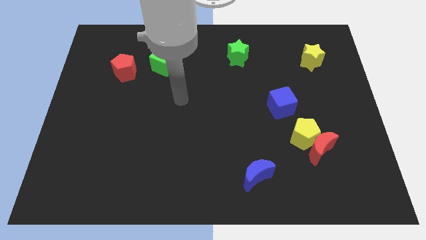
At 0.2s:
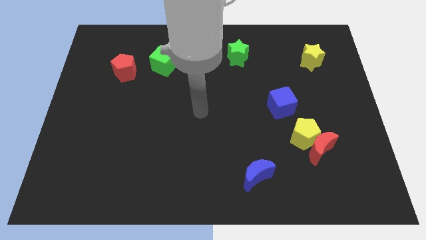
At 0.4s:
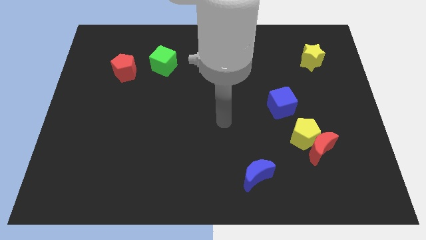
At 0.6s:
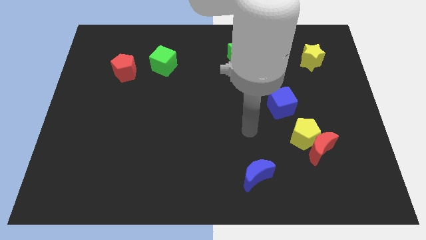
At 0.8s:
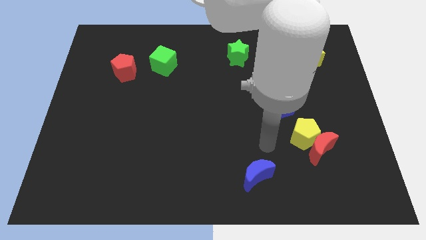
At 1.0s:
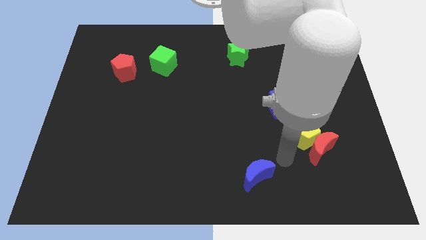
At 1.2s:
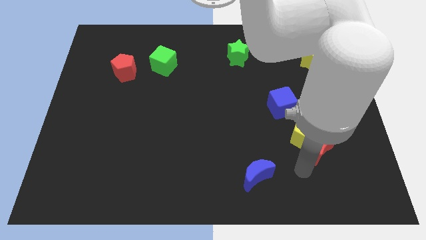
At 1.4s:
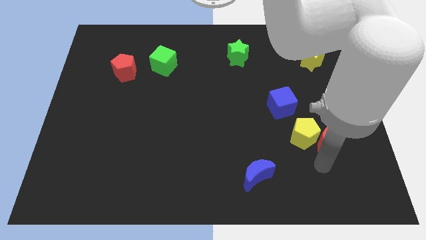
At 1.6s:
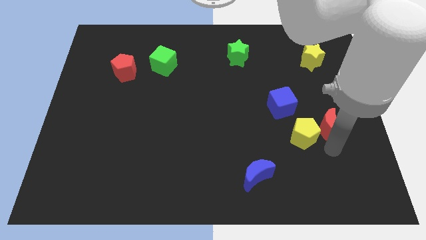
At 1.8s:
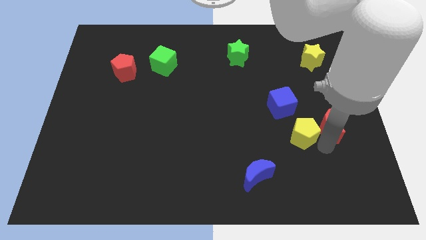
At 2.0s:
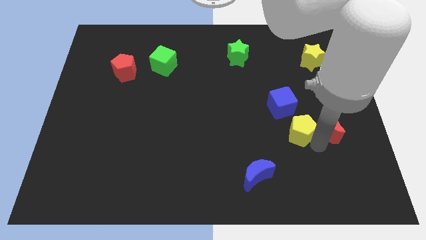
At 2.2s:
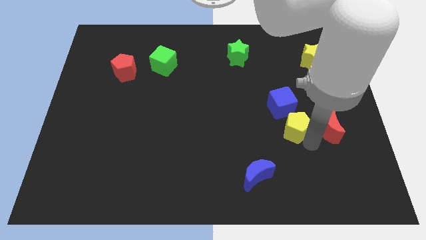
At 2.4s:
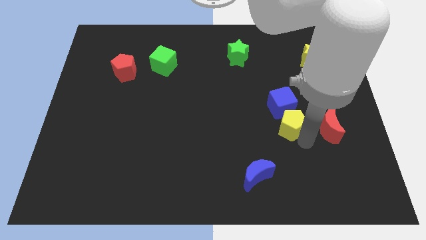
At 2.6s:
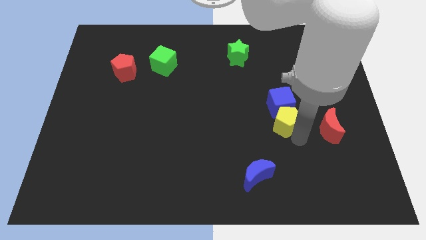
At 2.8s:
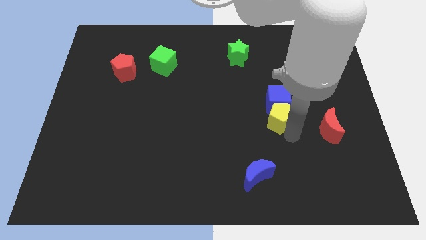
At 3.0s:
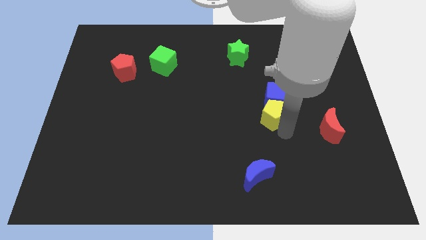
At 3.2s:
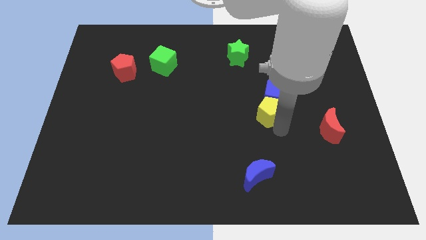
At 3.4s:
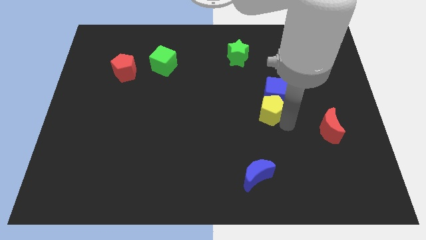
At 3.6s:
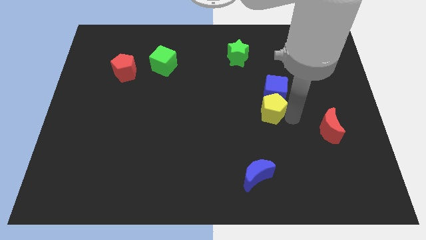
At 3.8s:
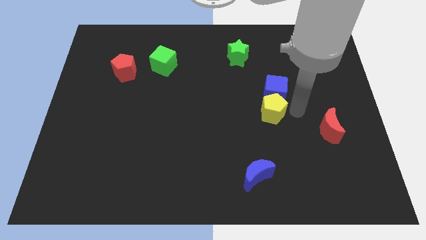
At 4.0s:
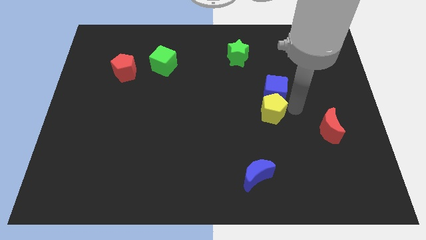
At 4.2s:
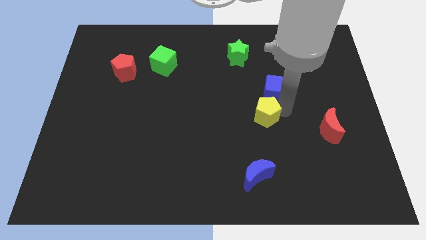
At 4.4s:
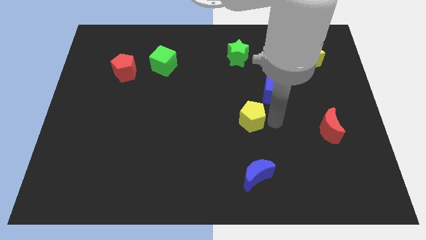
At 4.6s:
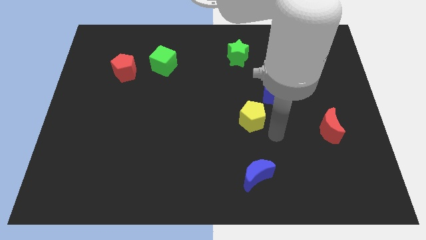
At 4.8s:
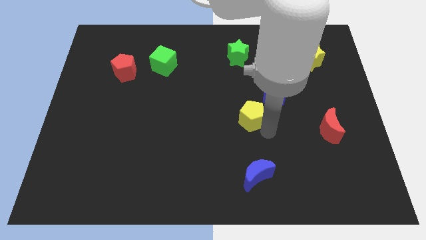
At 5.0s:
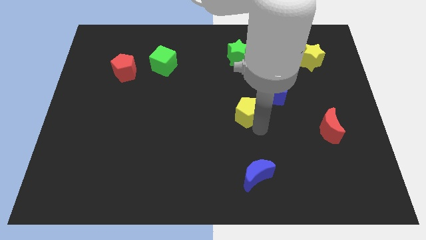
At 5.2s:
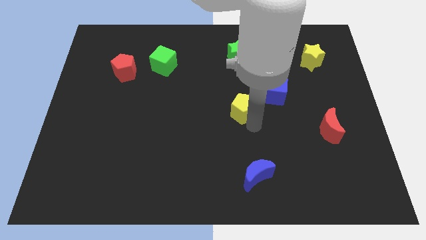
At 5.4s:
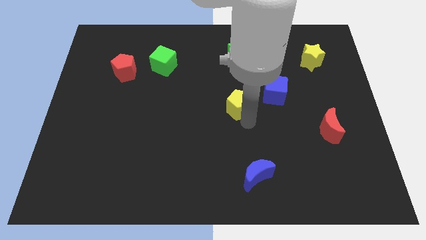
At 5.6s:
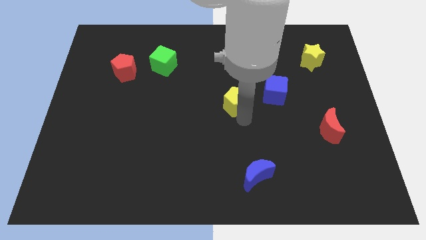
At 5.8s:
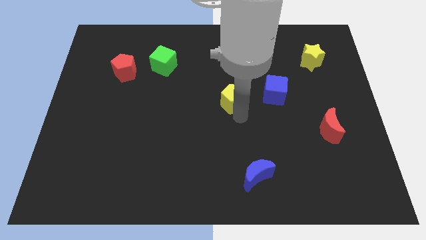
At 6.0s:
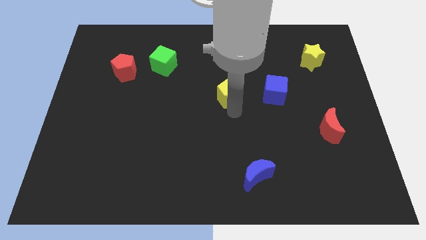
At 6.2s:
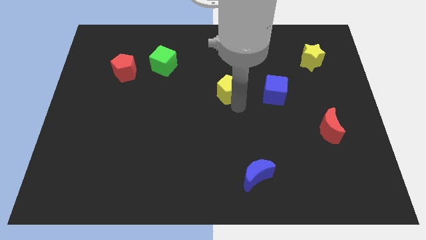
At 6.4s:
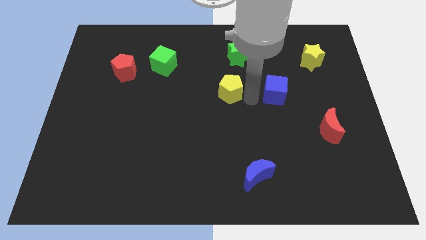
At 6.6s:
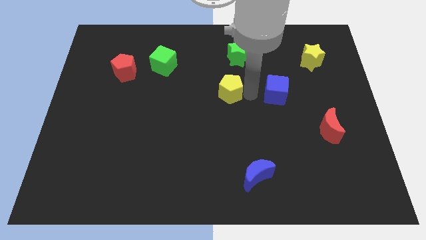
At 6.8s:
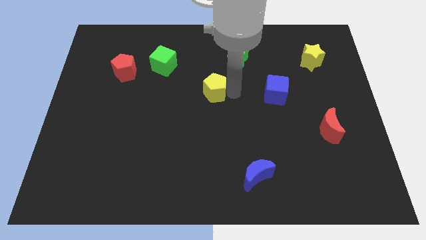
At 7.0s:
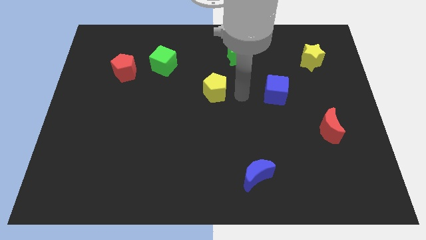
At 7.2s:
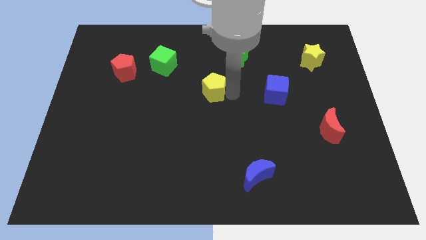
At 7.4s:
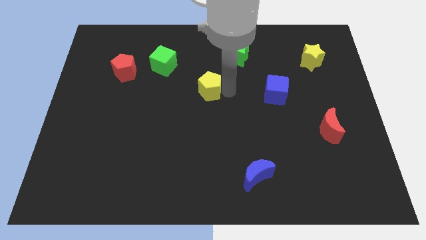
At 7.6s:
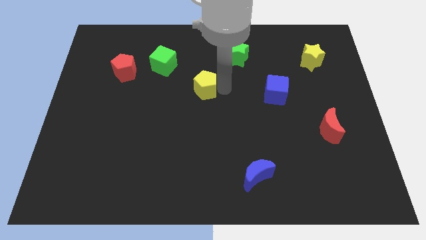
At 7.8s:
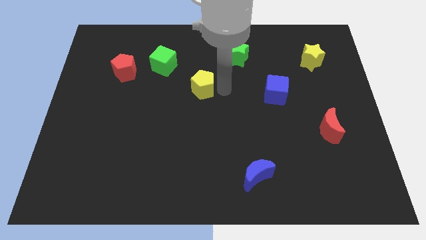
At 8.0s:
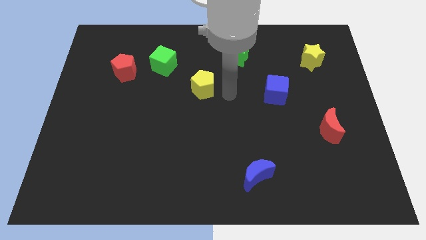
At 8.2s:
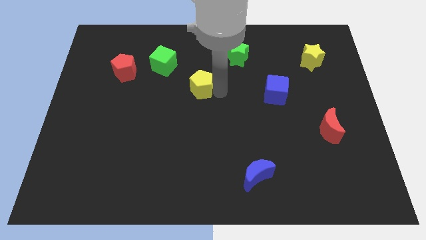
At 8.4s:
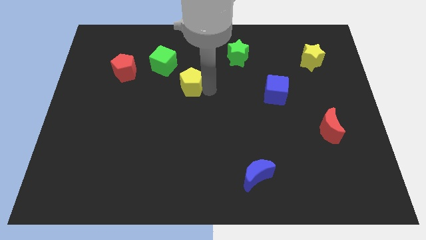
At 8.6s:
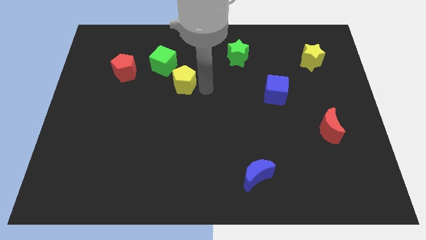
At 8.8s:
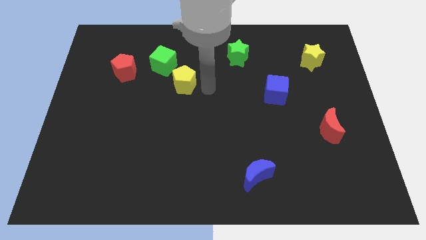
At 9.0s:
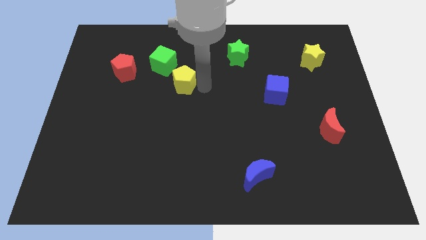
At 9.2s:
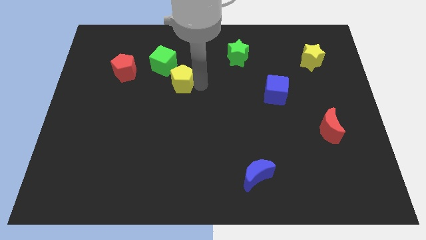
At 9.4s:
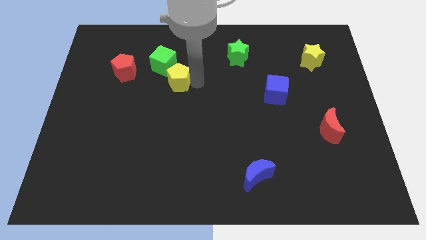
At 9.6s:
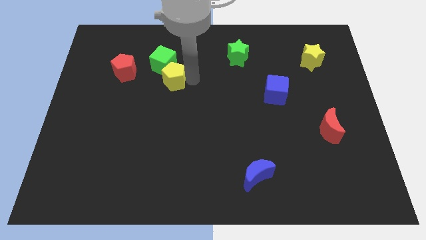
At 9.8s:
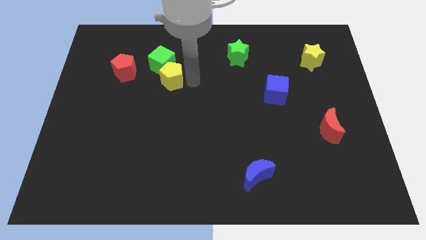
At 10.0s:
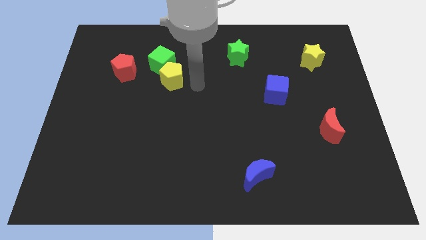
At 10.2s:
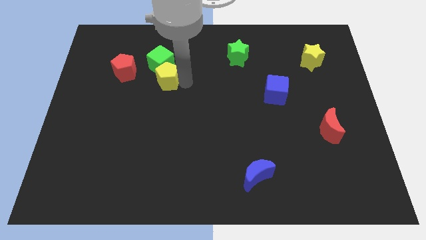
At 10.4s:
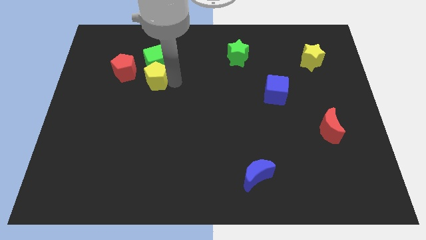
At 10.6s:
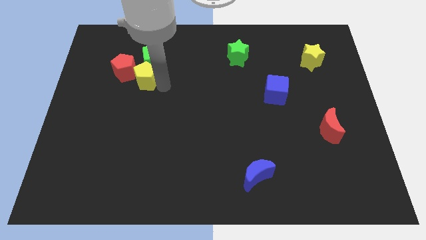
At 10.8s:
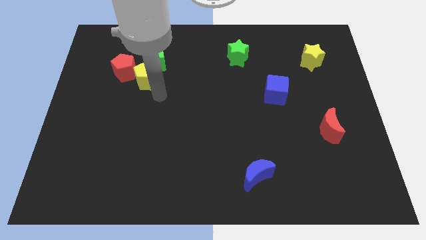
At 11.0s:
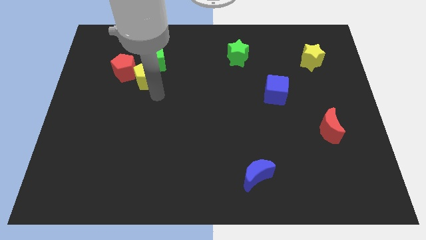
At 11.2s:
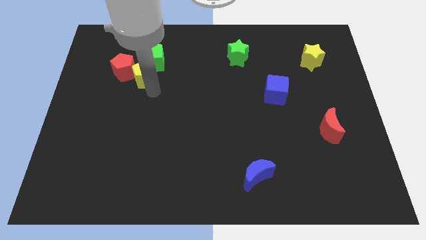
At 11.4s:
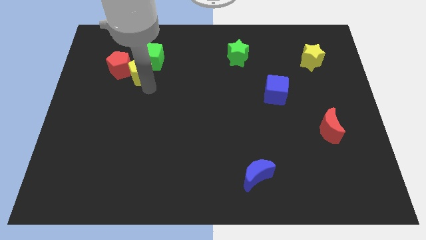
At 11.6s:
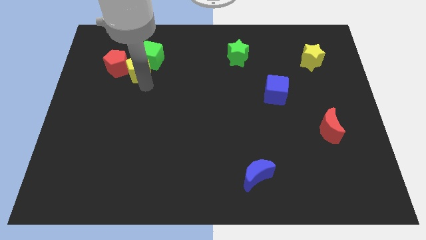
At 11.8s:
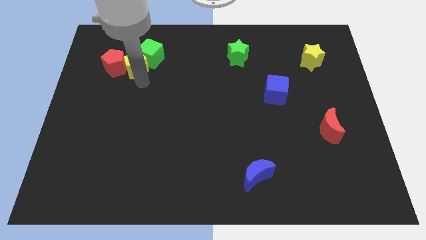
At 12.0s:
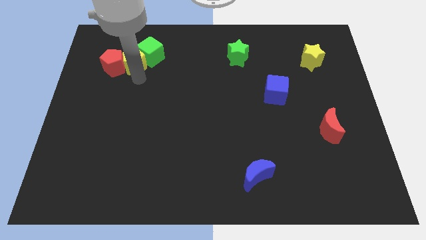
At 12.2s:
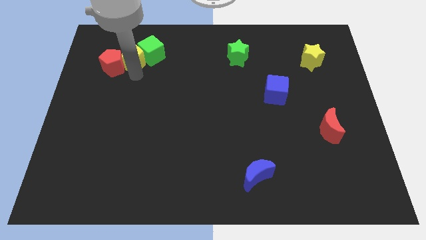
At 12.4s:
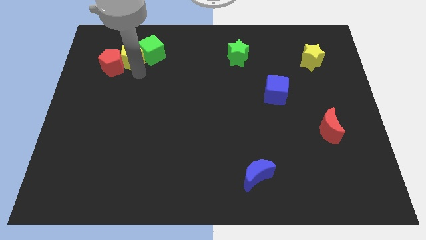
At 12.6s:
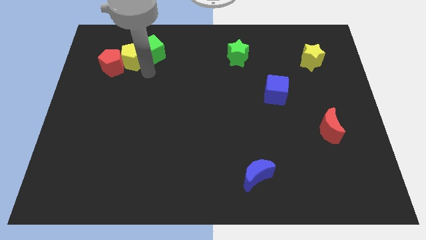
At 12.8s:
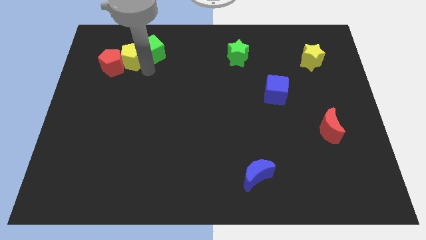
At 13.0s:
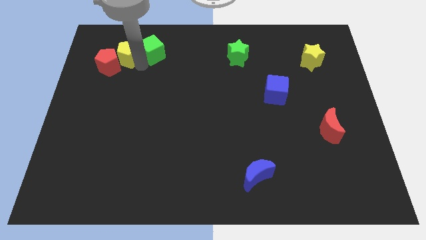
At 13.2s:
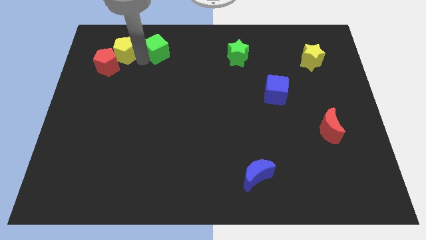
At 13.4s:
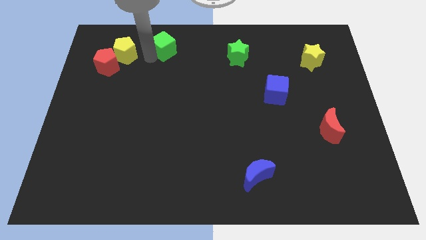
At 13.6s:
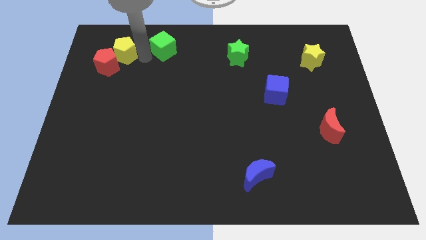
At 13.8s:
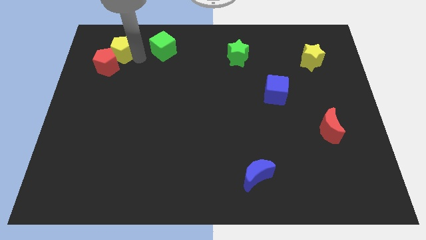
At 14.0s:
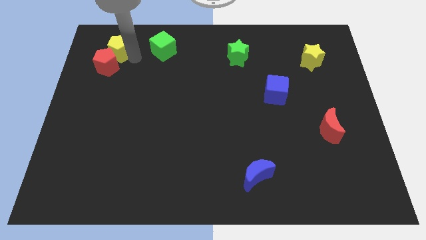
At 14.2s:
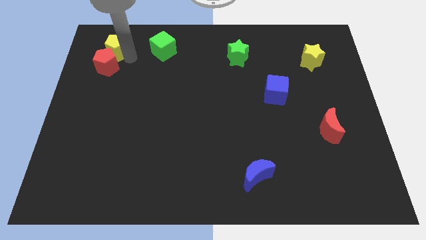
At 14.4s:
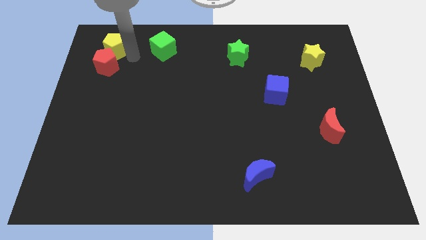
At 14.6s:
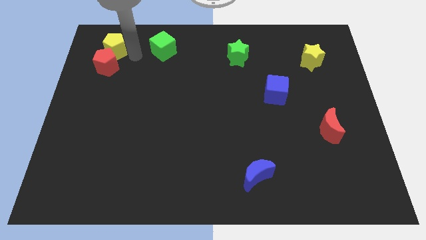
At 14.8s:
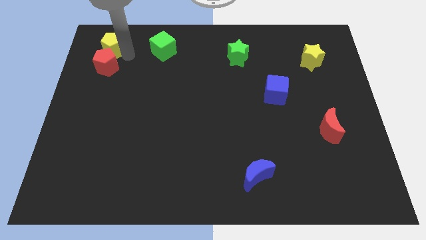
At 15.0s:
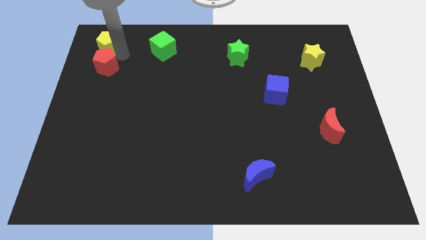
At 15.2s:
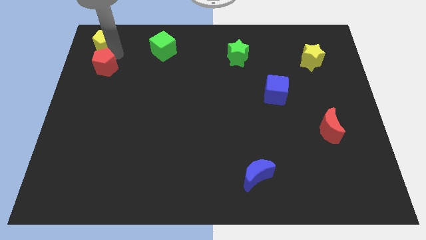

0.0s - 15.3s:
move the yellow pentagon to the top left of the board
